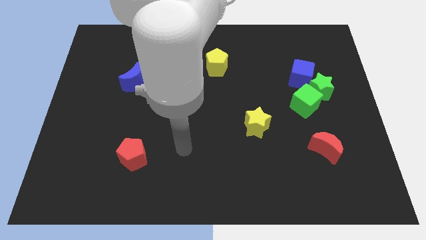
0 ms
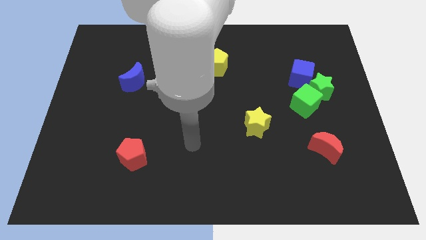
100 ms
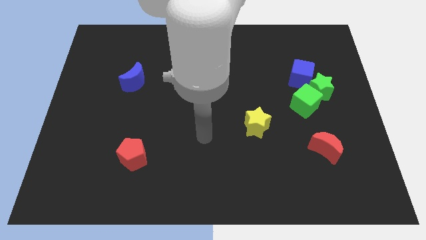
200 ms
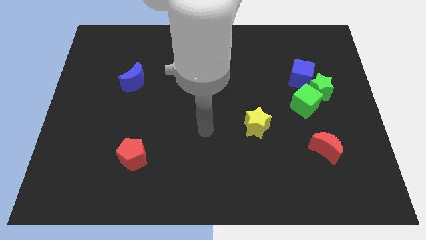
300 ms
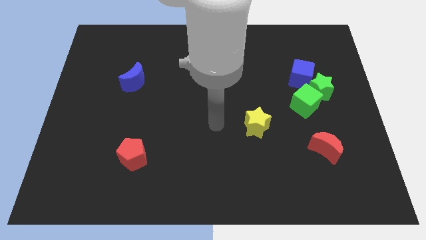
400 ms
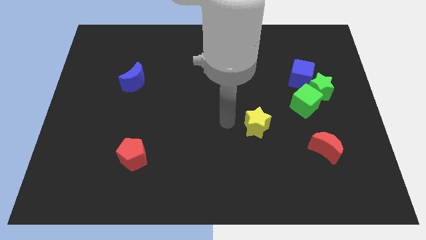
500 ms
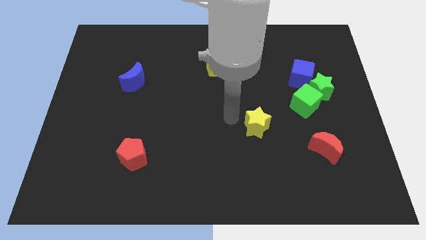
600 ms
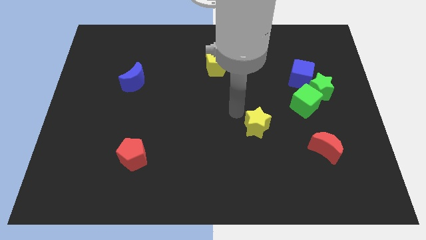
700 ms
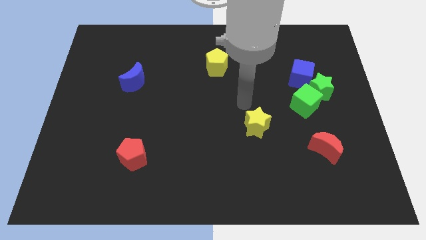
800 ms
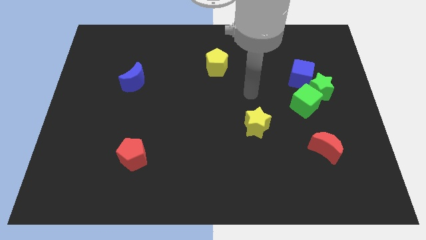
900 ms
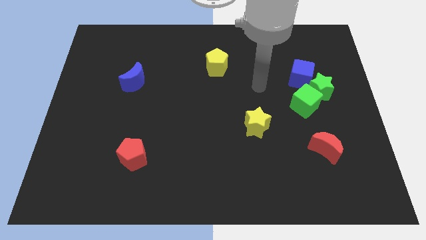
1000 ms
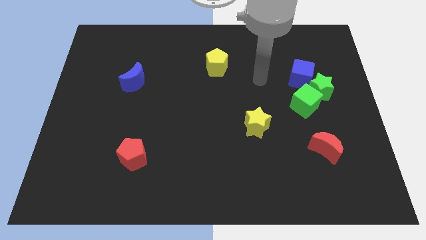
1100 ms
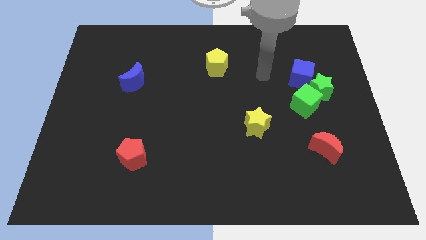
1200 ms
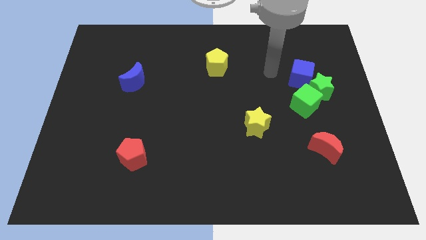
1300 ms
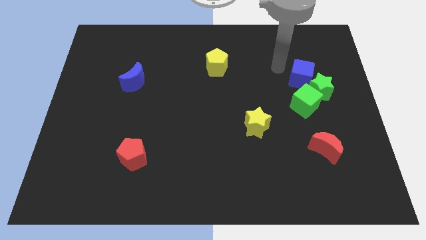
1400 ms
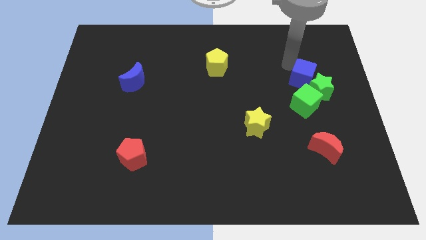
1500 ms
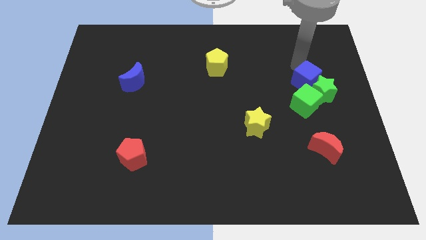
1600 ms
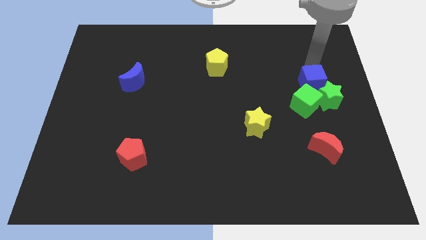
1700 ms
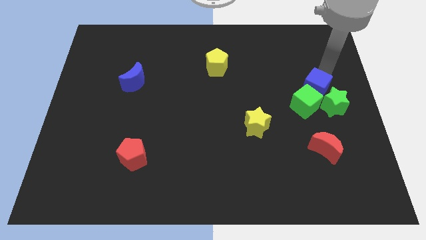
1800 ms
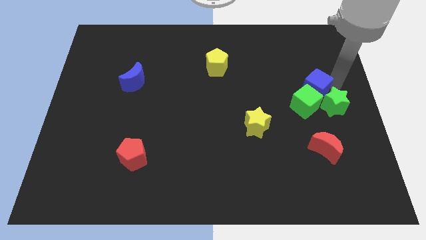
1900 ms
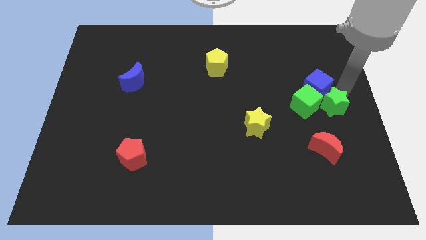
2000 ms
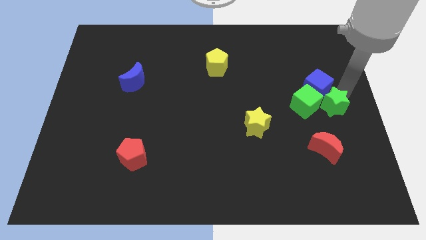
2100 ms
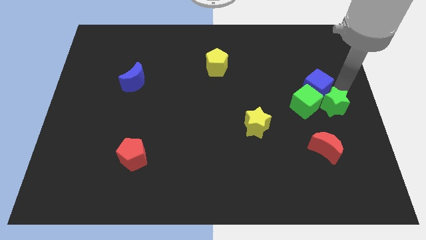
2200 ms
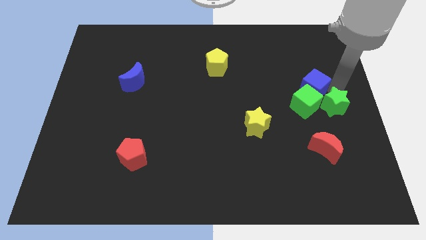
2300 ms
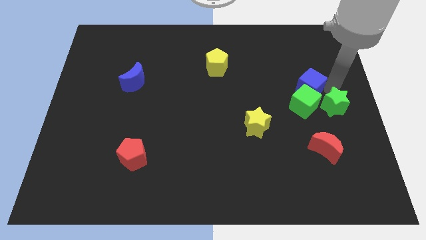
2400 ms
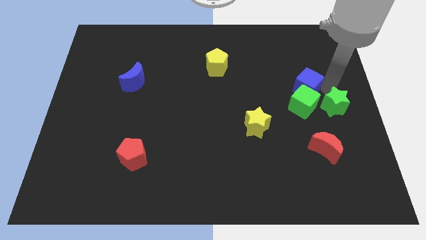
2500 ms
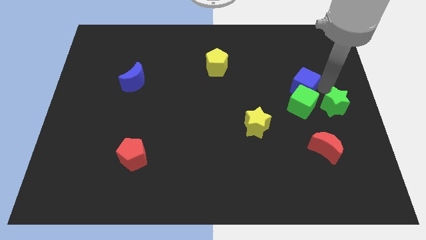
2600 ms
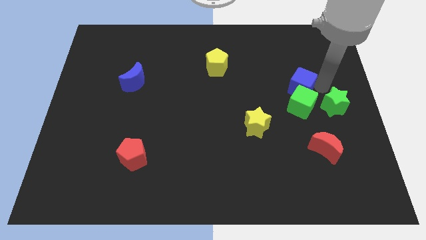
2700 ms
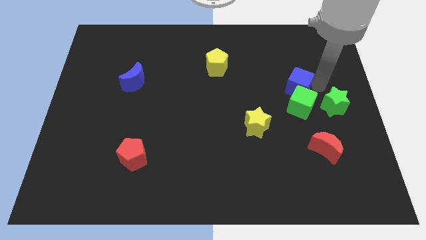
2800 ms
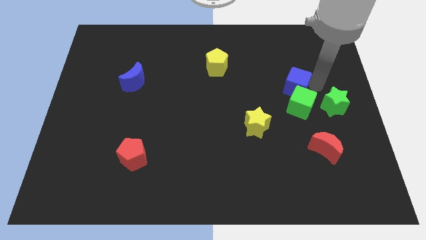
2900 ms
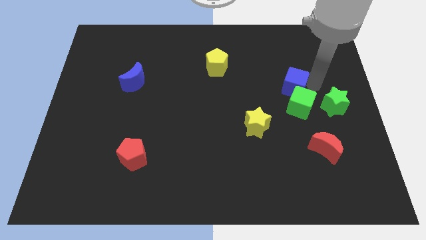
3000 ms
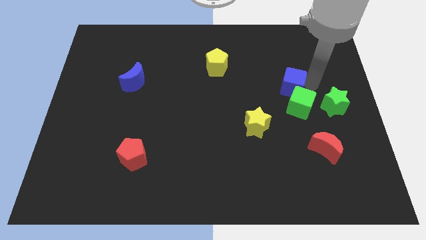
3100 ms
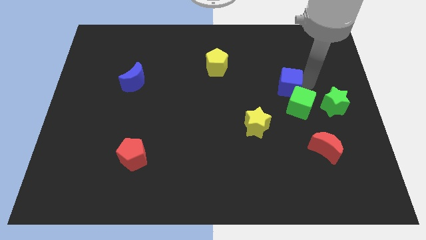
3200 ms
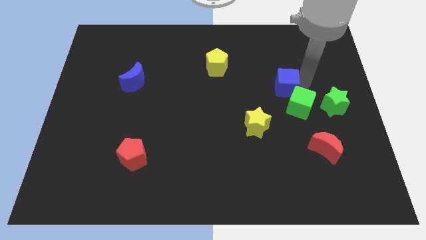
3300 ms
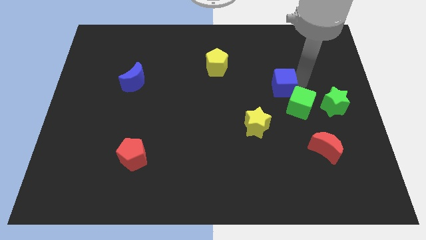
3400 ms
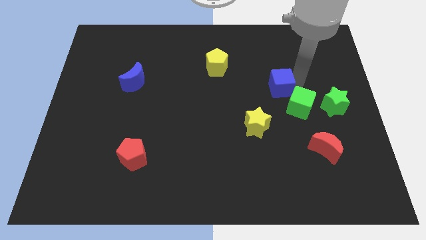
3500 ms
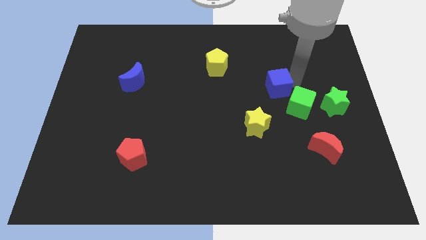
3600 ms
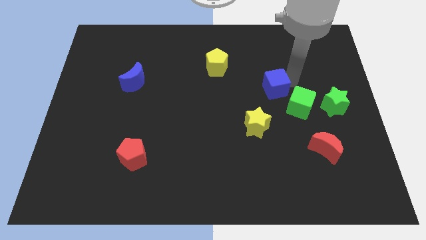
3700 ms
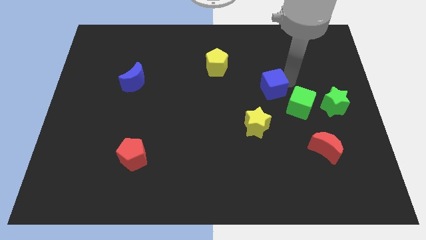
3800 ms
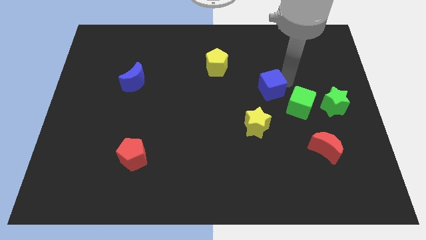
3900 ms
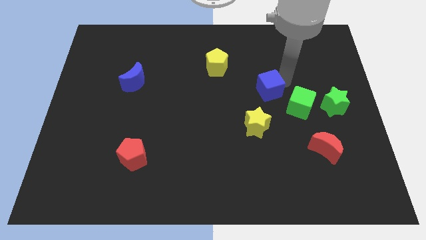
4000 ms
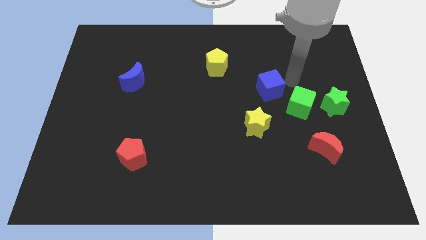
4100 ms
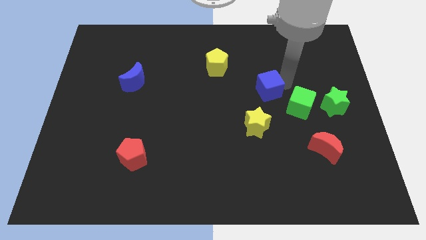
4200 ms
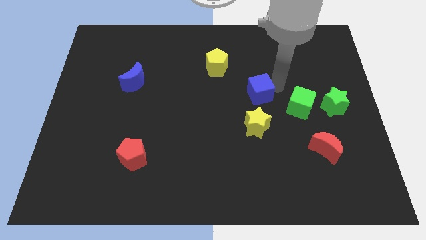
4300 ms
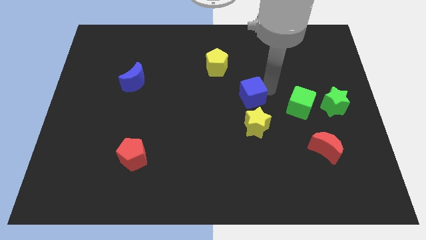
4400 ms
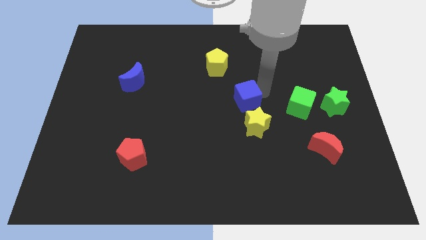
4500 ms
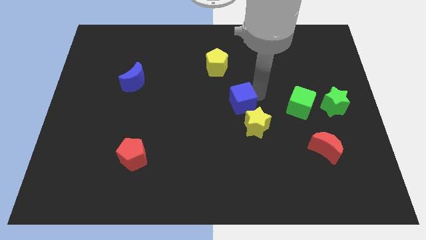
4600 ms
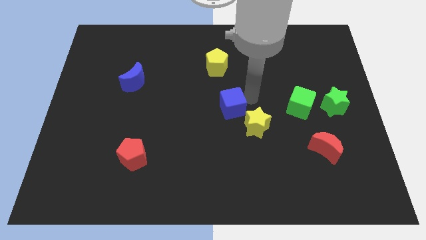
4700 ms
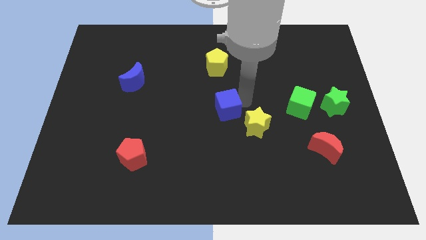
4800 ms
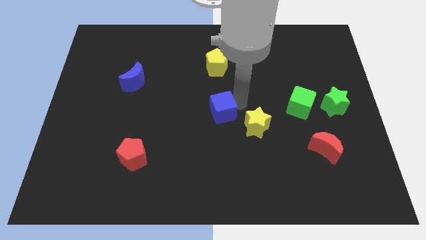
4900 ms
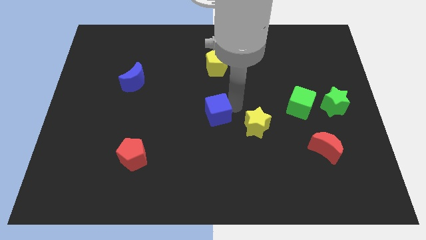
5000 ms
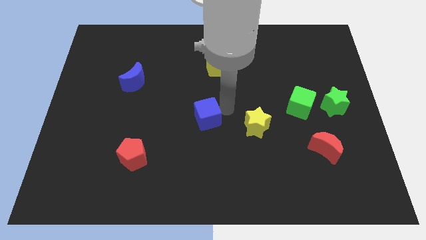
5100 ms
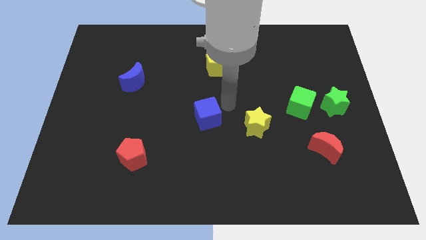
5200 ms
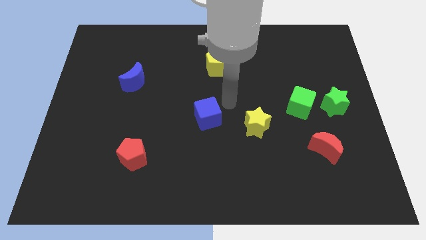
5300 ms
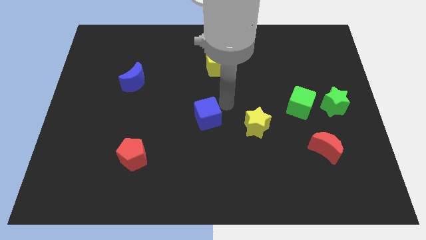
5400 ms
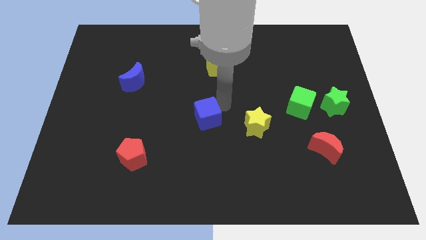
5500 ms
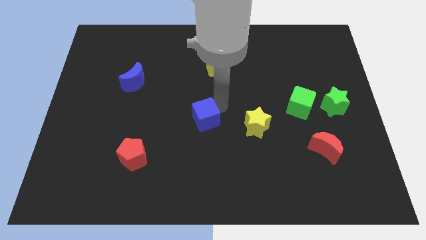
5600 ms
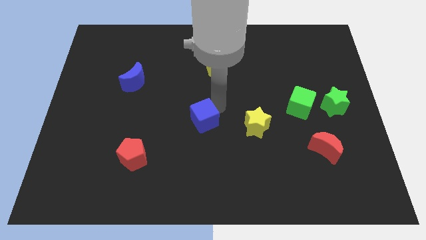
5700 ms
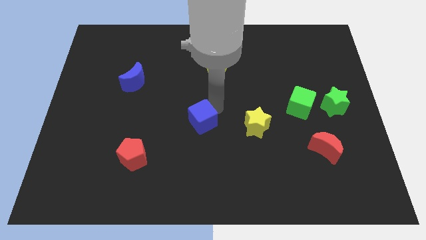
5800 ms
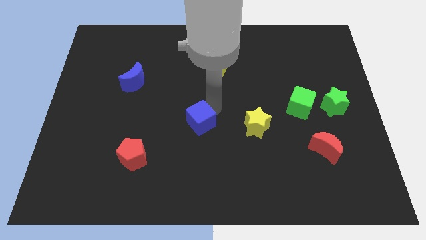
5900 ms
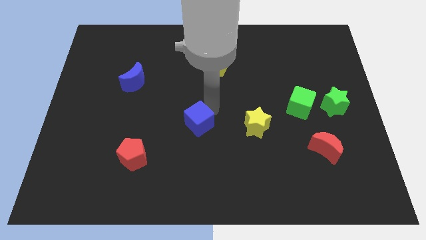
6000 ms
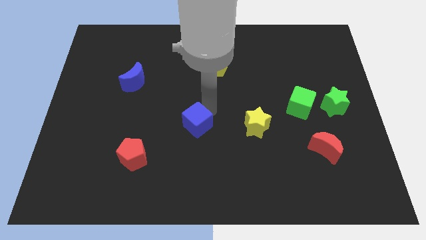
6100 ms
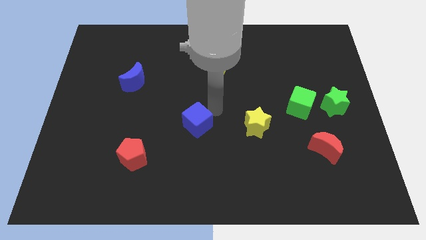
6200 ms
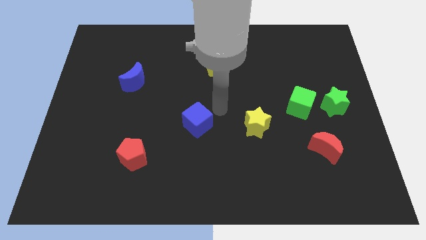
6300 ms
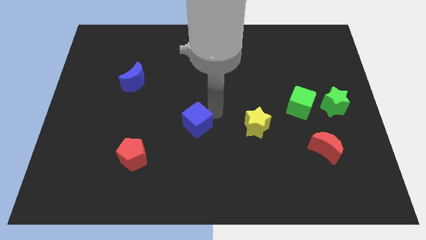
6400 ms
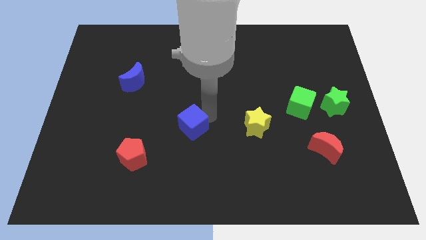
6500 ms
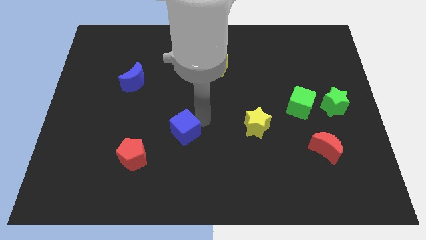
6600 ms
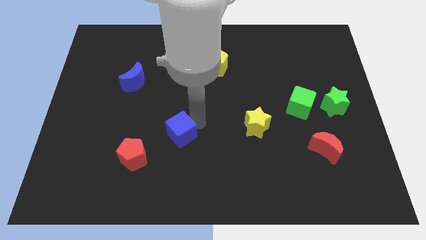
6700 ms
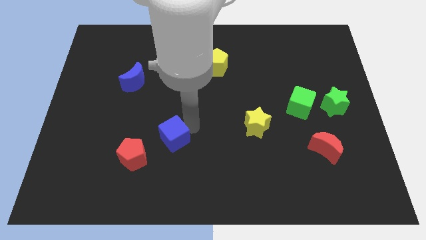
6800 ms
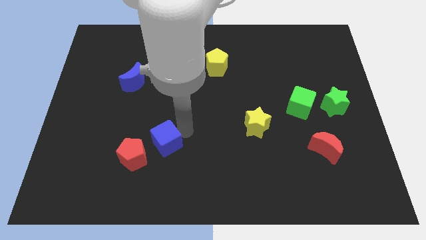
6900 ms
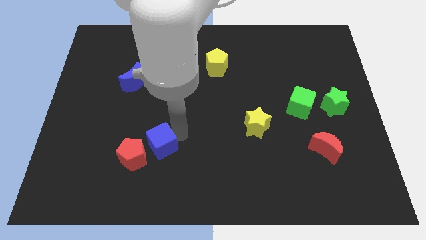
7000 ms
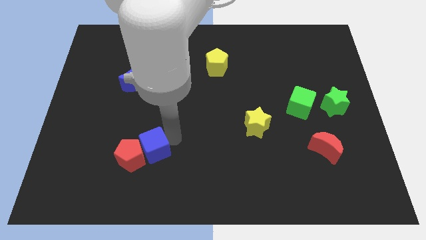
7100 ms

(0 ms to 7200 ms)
put the blue cube to the red pentagon
